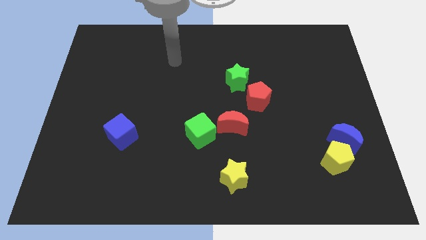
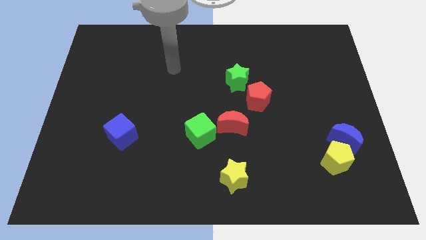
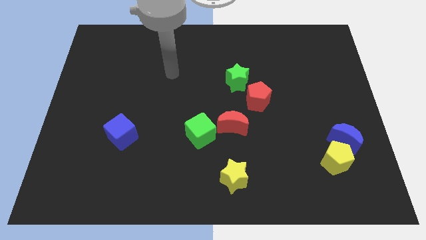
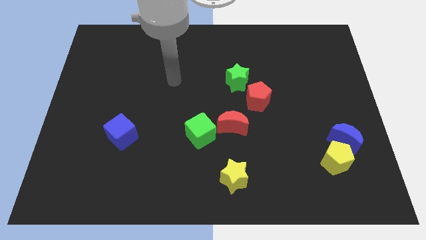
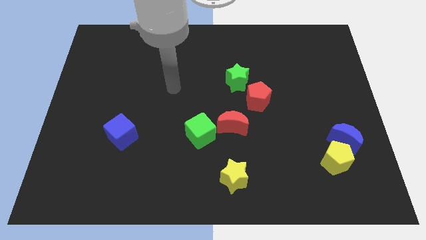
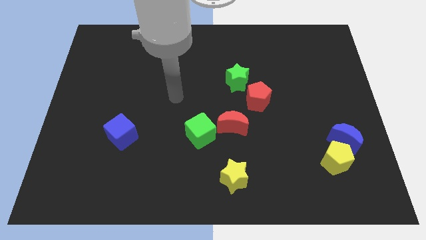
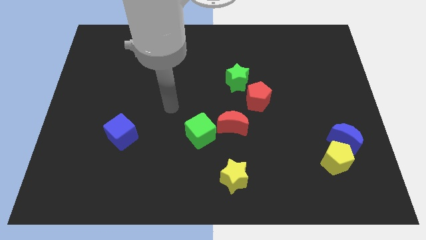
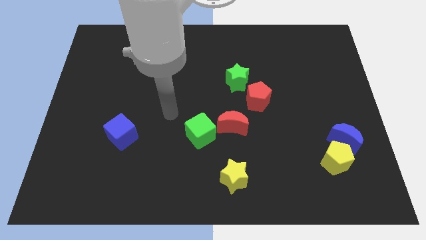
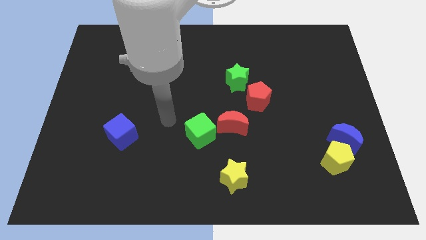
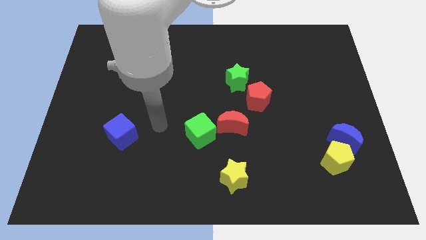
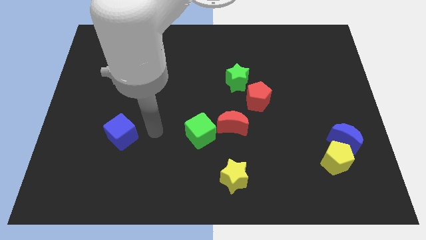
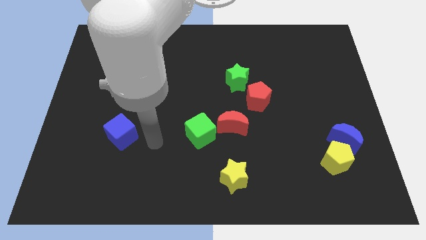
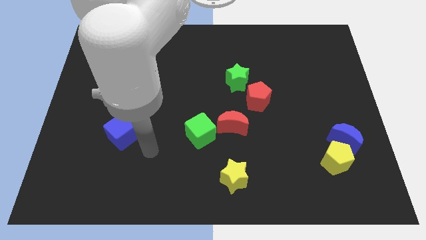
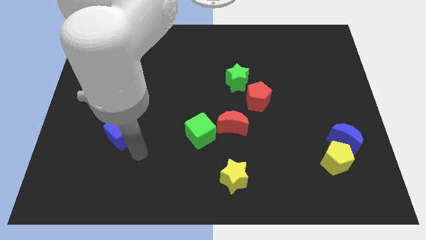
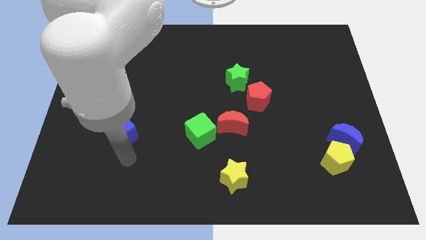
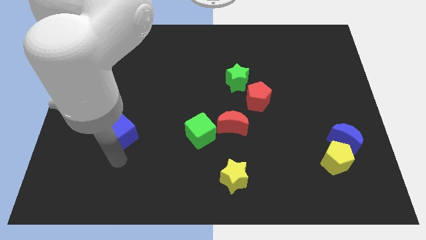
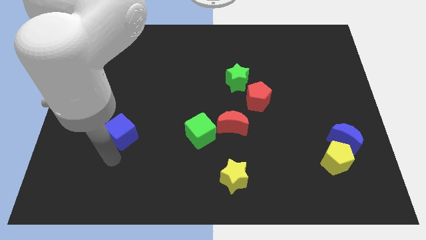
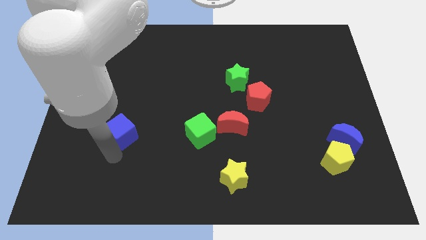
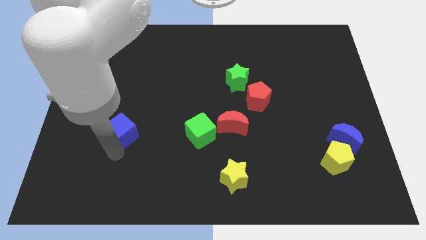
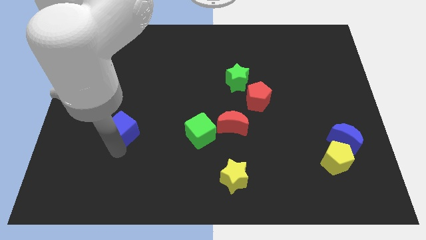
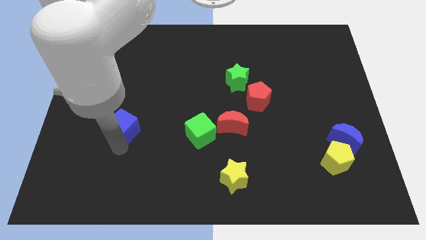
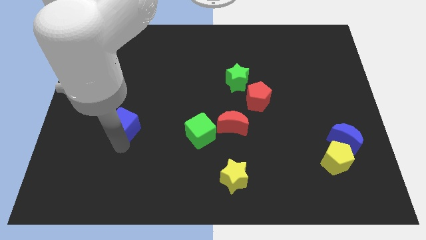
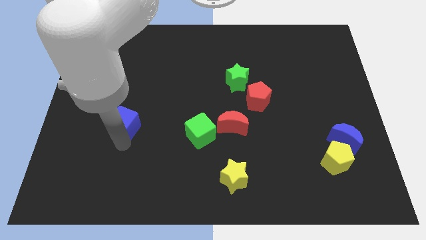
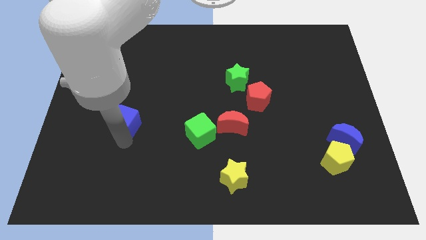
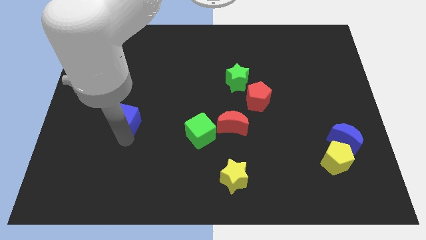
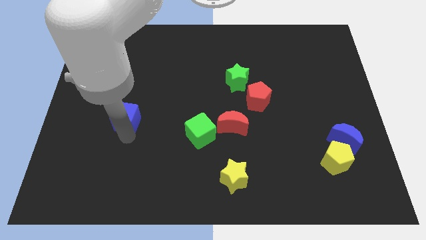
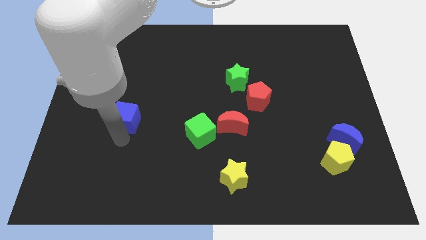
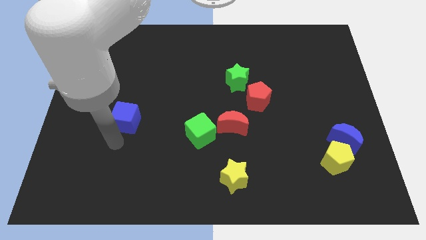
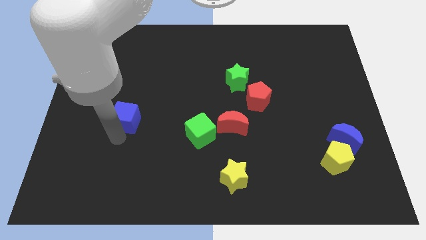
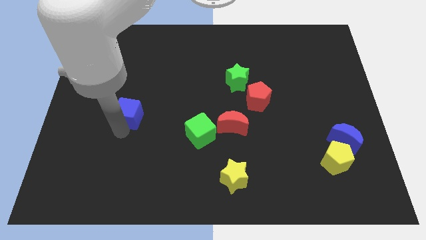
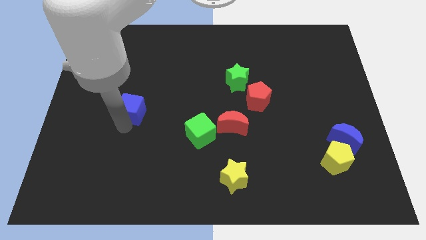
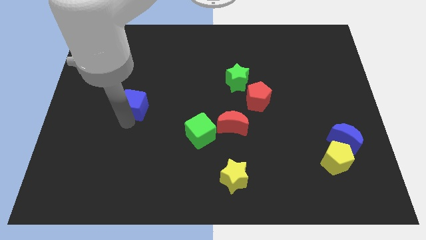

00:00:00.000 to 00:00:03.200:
slightly push the blue cube up

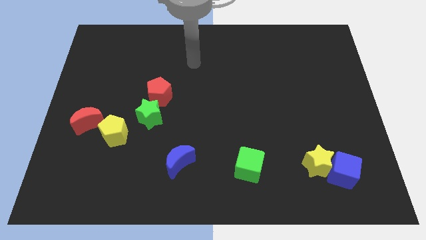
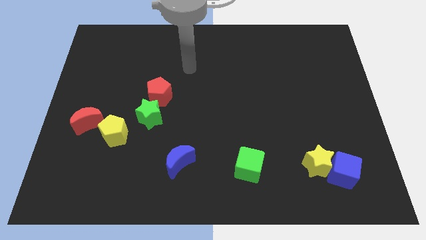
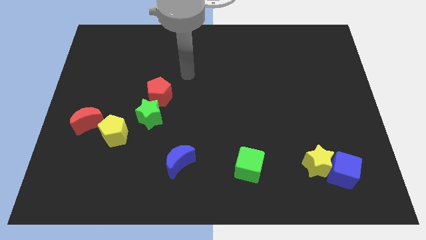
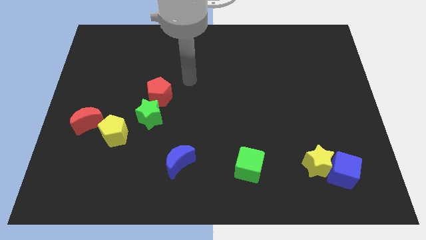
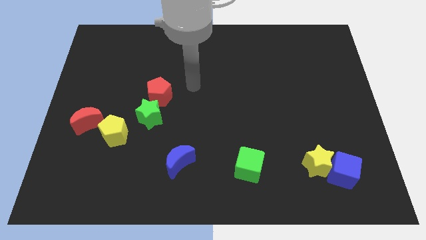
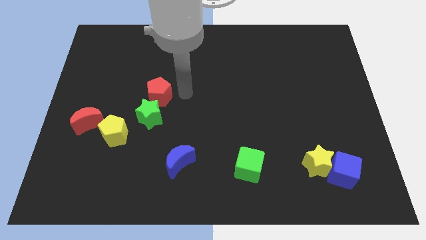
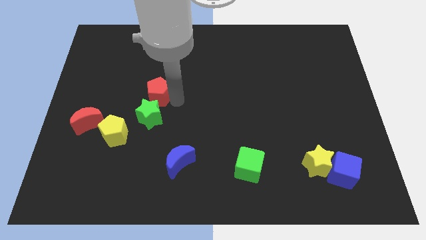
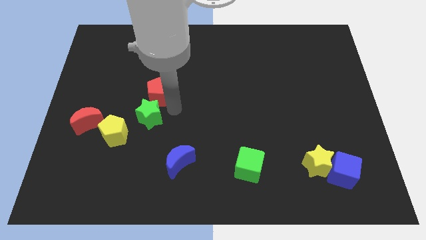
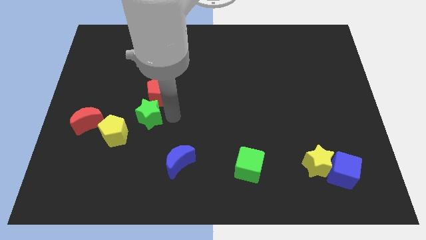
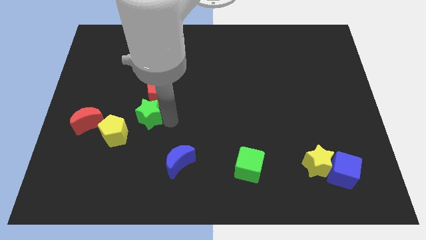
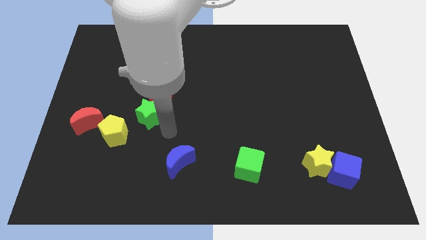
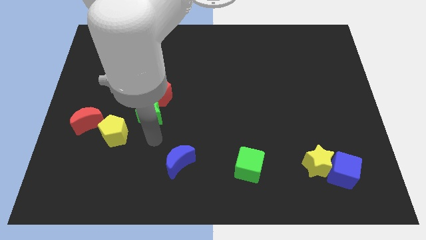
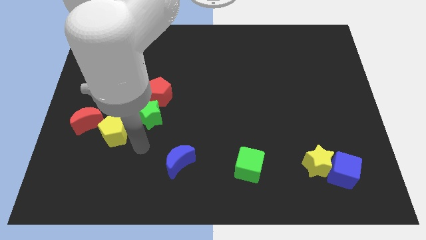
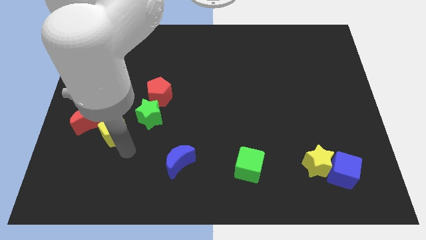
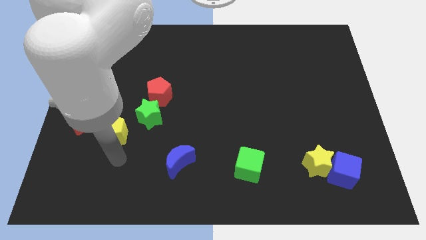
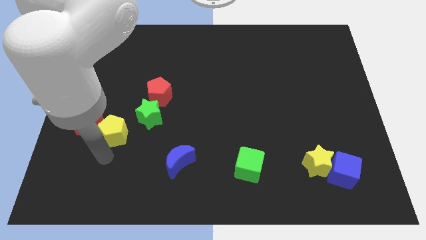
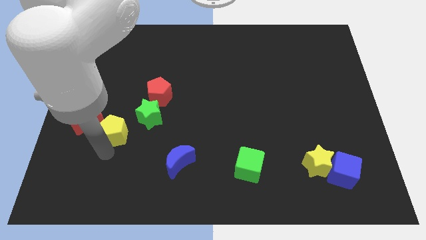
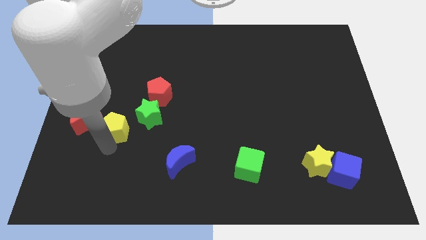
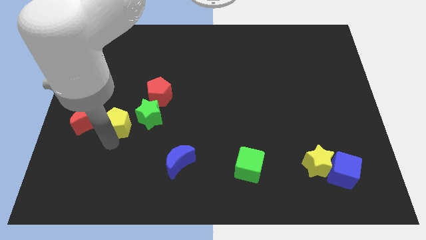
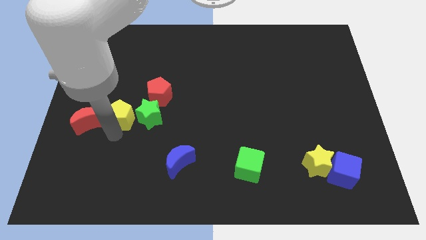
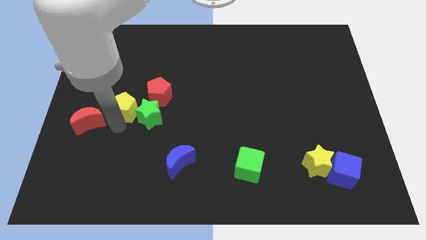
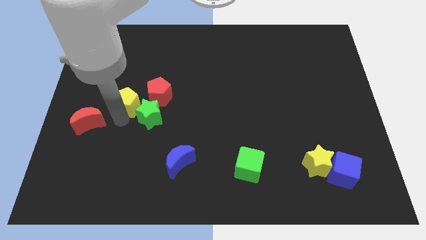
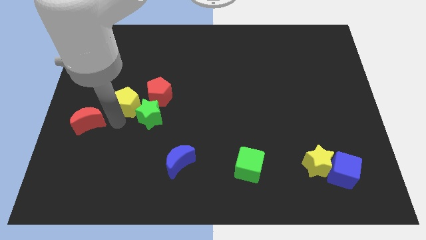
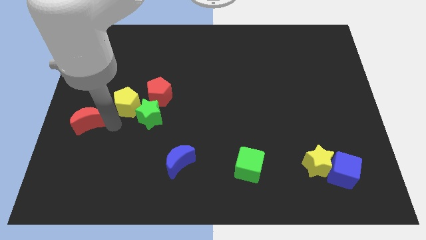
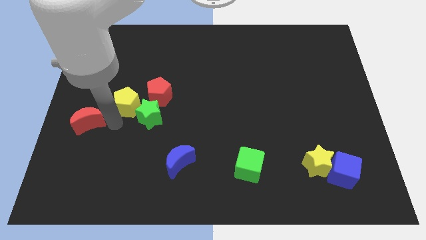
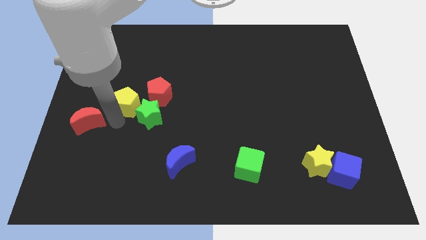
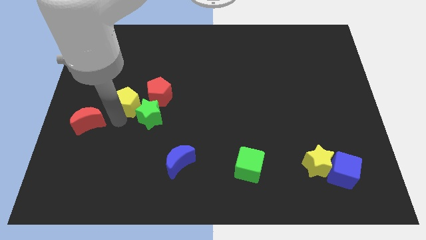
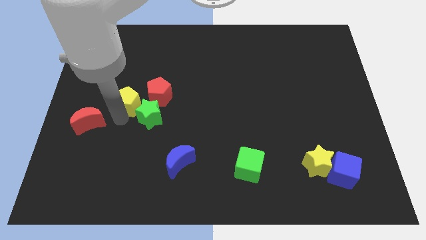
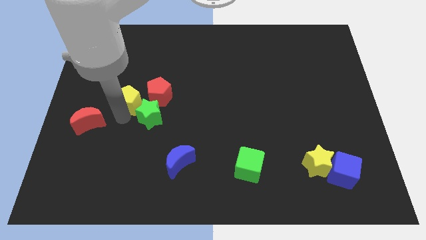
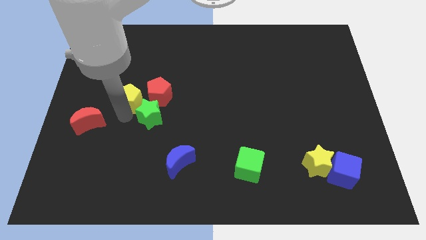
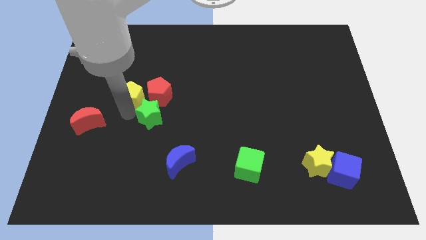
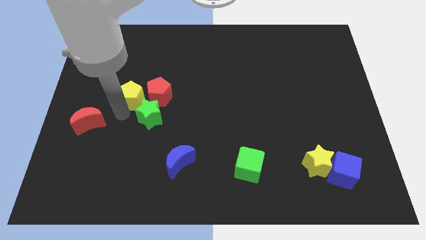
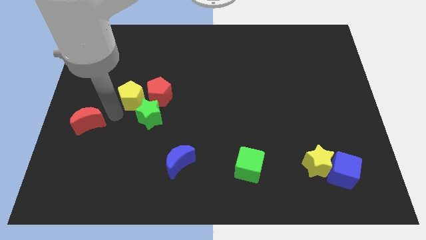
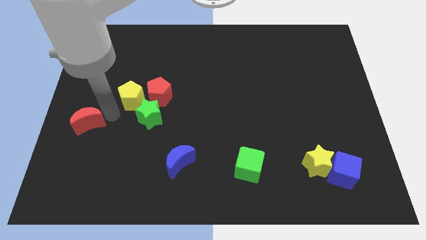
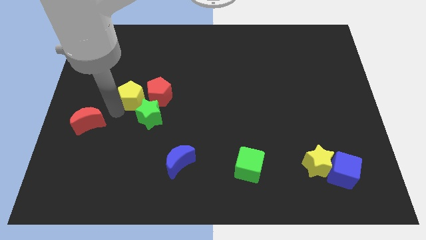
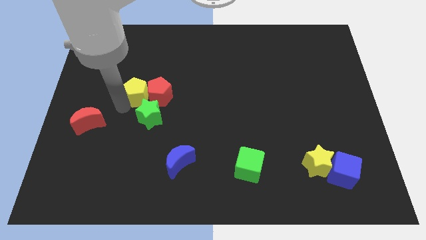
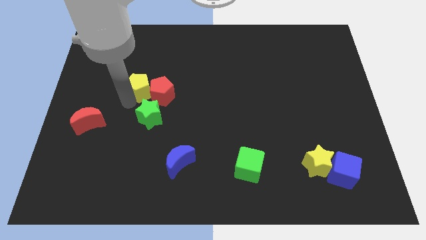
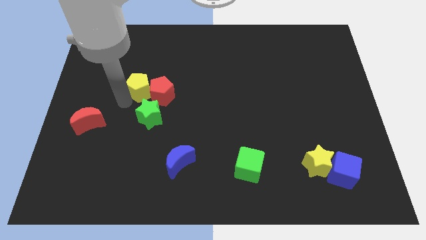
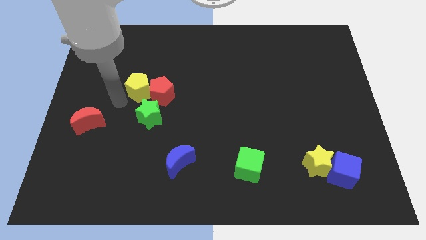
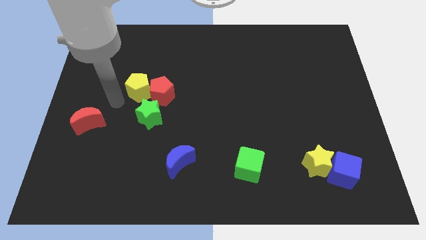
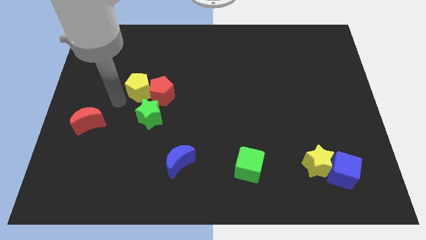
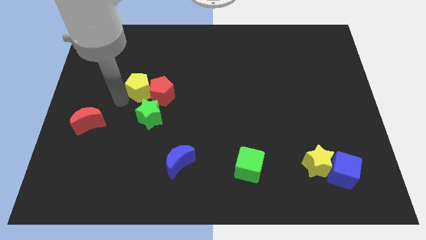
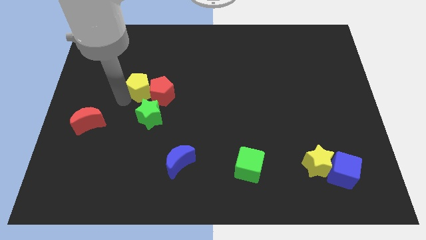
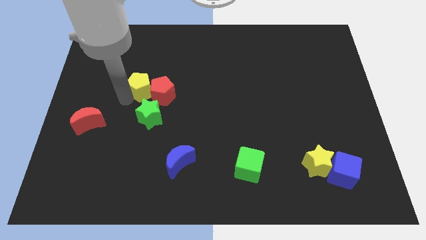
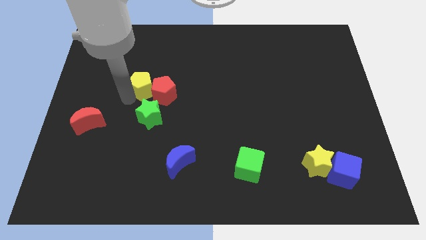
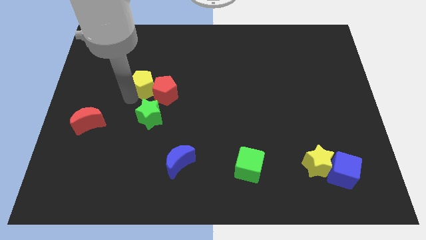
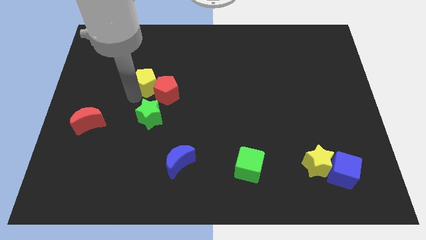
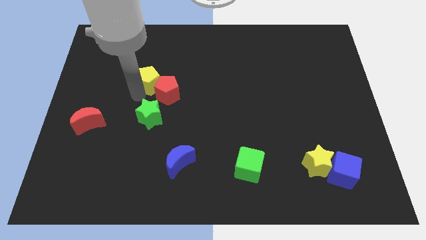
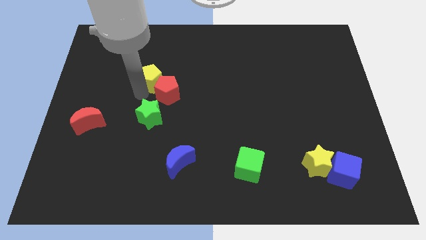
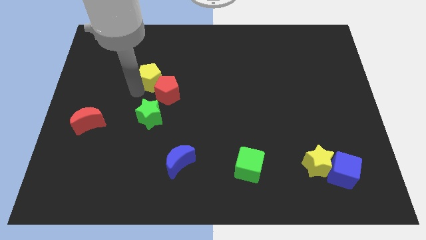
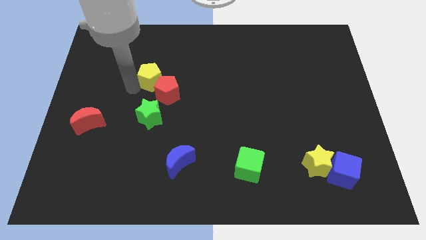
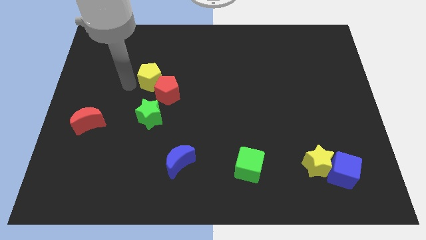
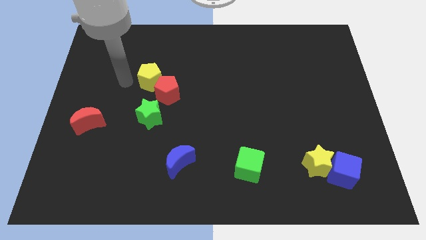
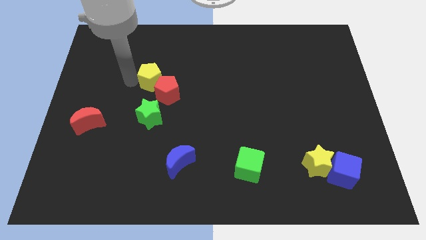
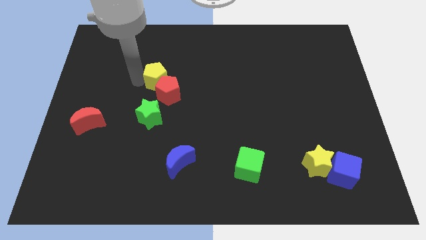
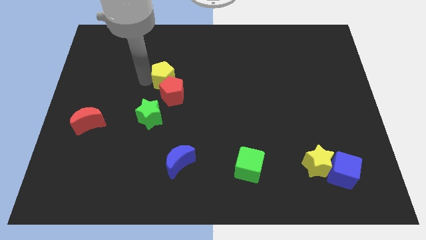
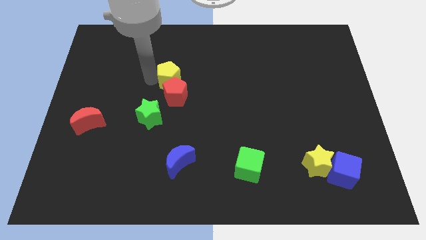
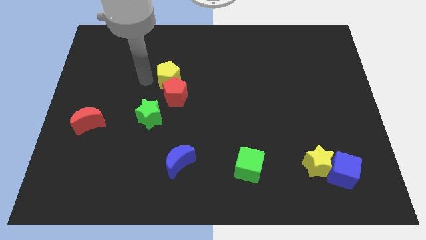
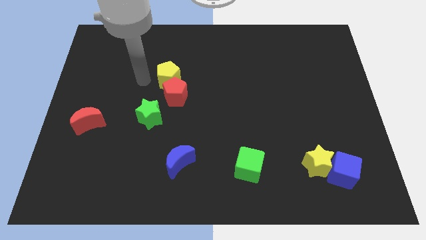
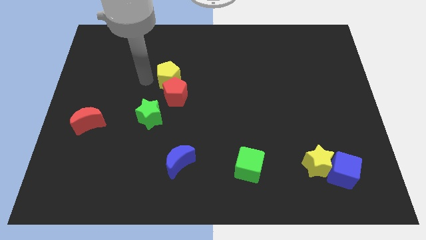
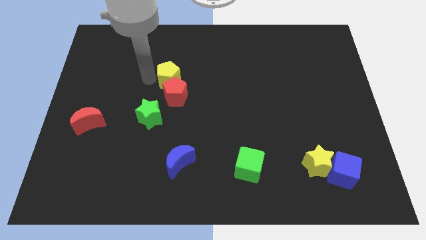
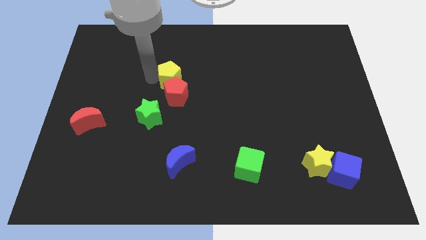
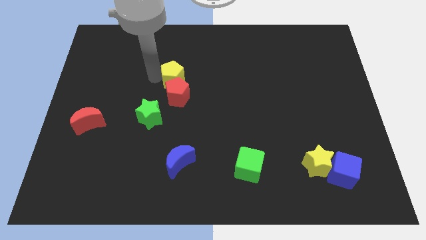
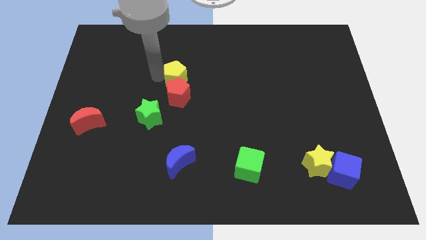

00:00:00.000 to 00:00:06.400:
push the yellow pentagon diagonally upwards and right
